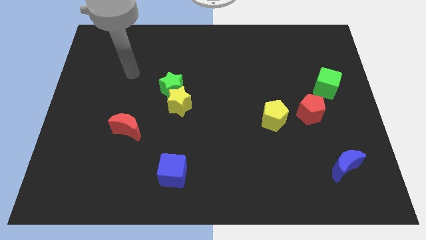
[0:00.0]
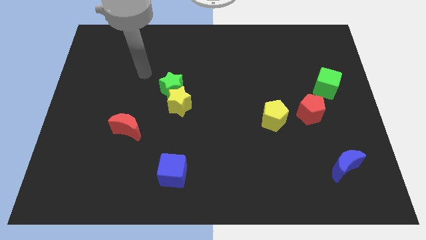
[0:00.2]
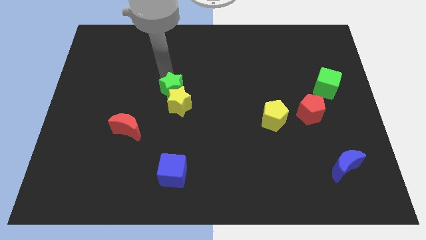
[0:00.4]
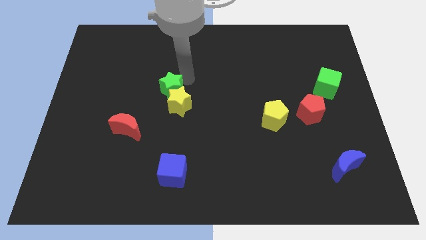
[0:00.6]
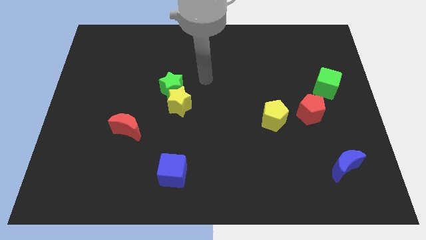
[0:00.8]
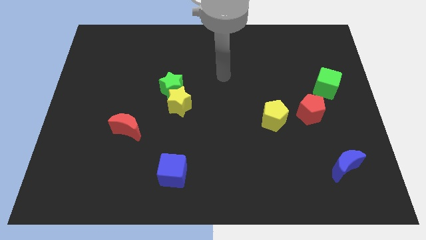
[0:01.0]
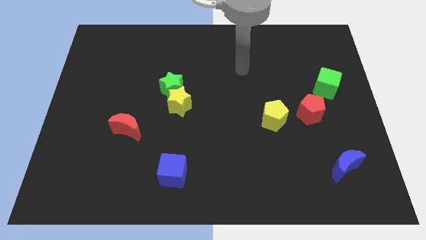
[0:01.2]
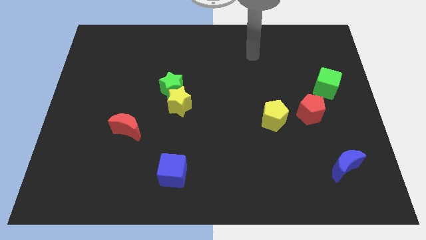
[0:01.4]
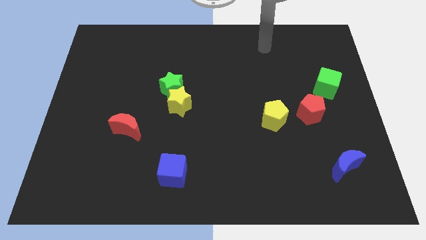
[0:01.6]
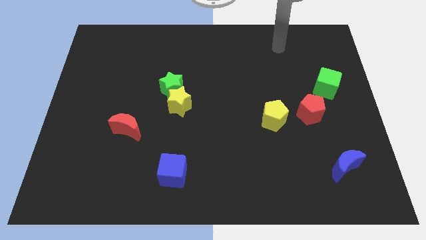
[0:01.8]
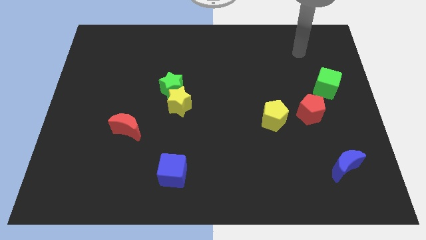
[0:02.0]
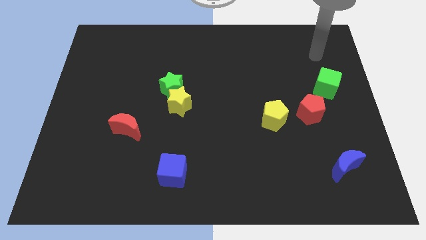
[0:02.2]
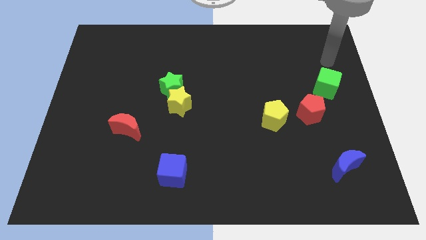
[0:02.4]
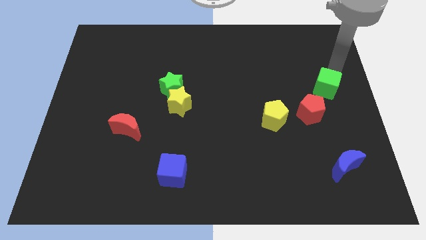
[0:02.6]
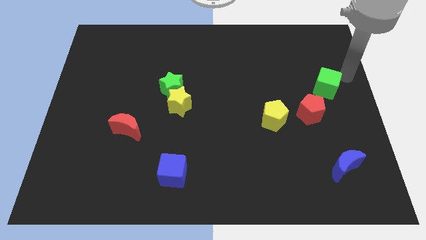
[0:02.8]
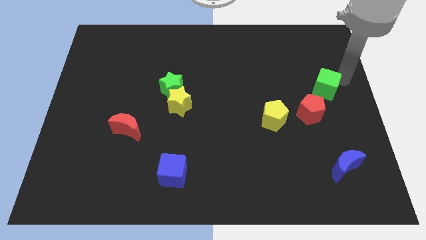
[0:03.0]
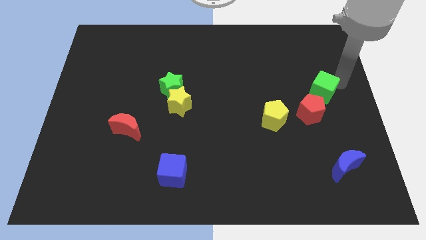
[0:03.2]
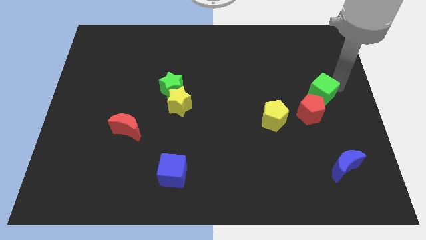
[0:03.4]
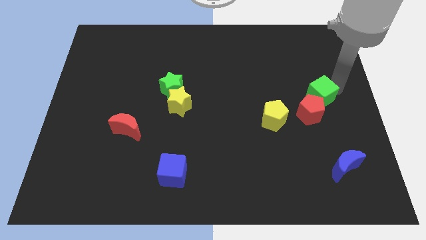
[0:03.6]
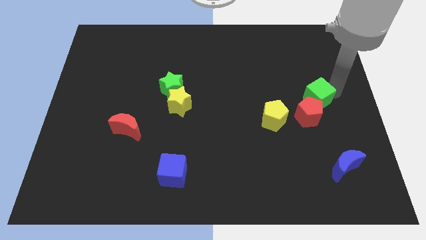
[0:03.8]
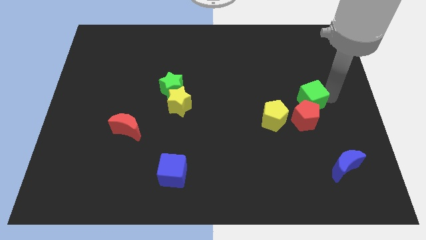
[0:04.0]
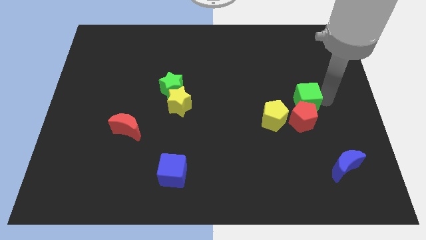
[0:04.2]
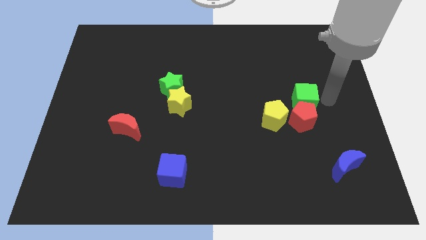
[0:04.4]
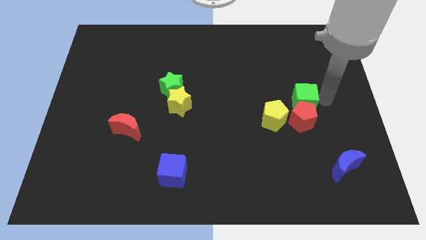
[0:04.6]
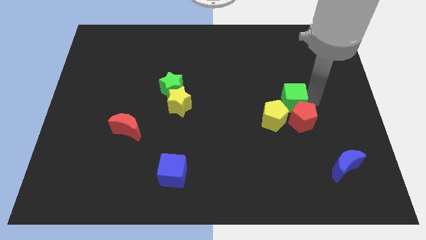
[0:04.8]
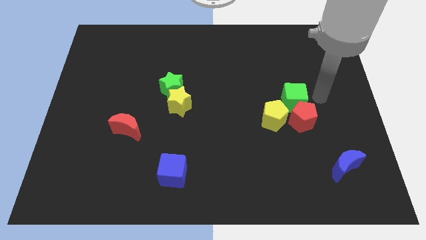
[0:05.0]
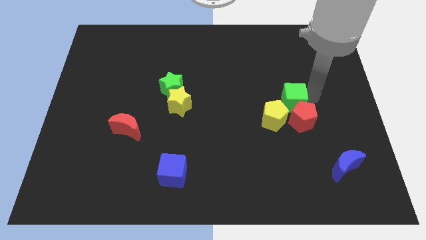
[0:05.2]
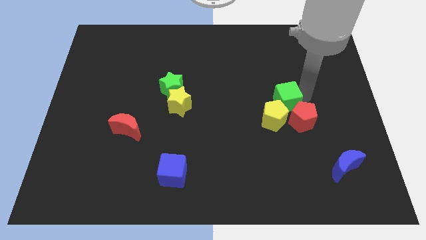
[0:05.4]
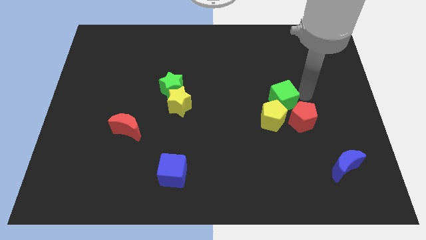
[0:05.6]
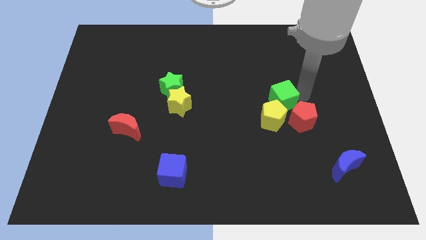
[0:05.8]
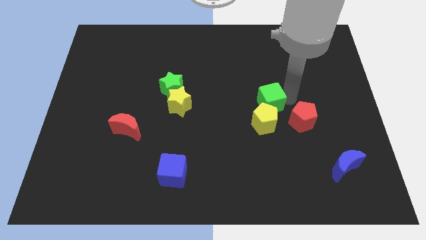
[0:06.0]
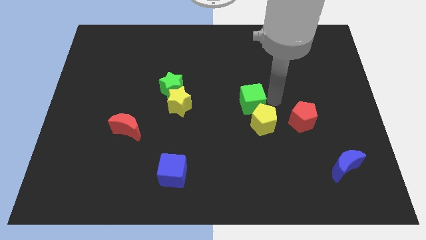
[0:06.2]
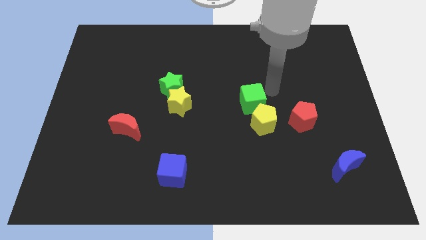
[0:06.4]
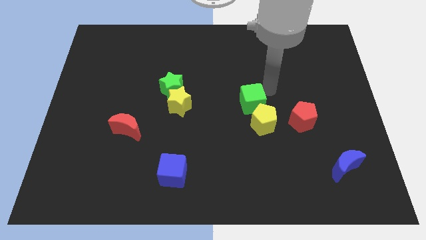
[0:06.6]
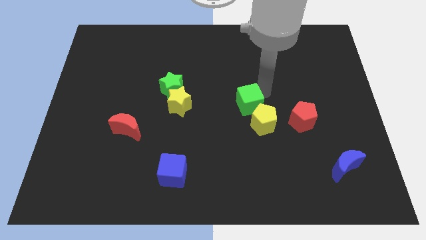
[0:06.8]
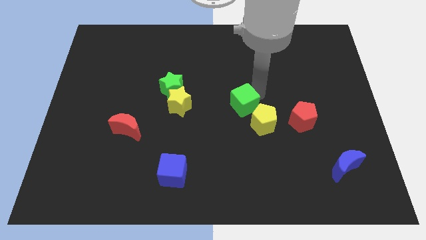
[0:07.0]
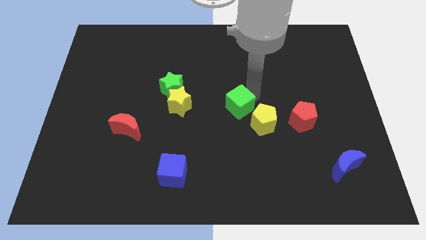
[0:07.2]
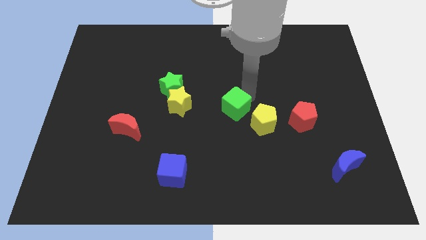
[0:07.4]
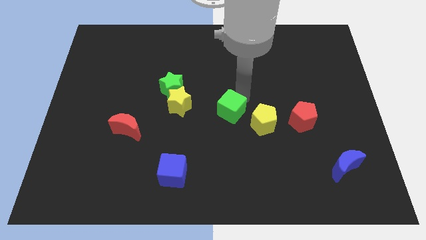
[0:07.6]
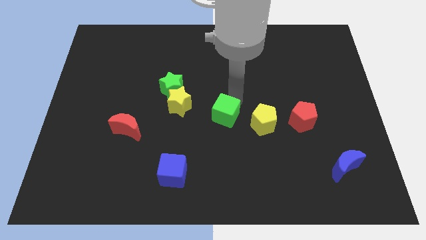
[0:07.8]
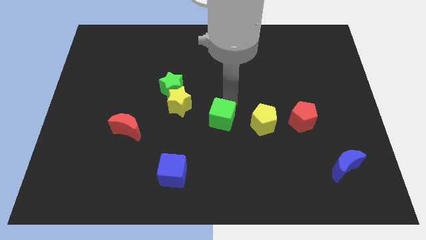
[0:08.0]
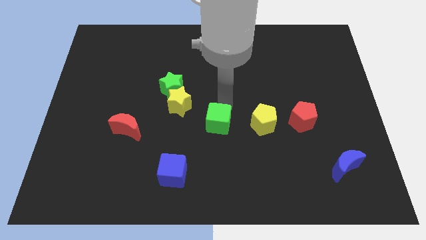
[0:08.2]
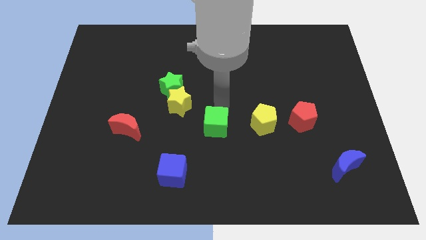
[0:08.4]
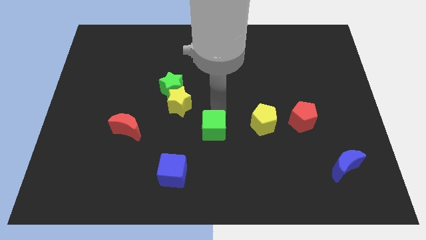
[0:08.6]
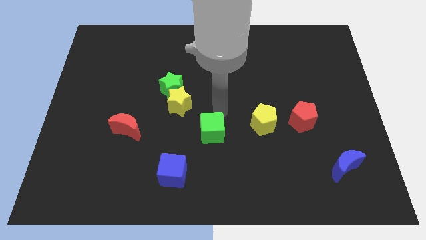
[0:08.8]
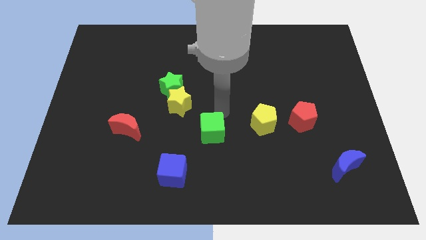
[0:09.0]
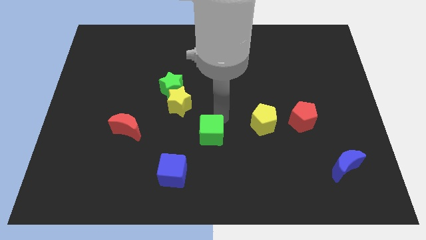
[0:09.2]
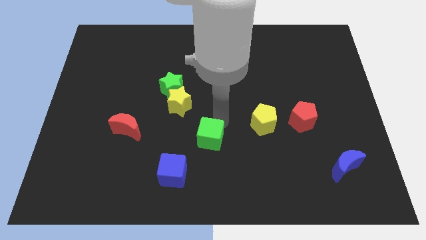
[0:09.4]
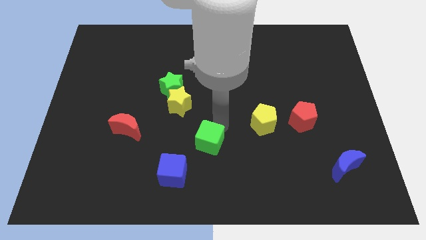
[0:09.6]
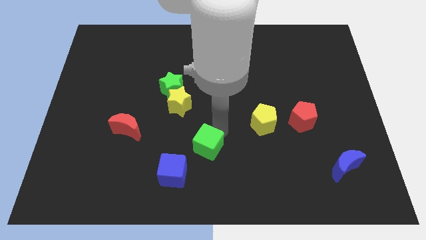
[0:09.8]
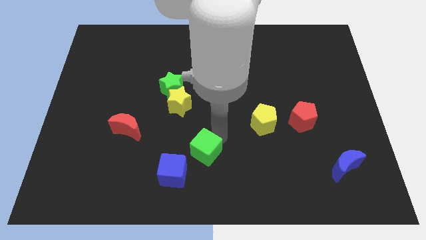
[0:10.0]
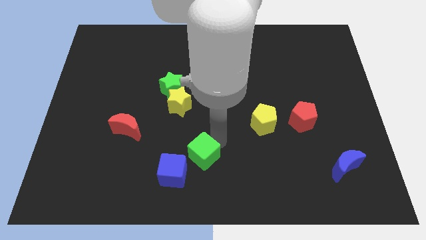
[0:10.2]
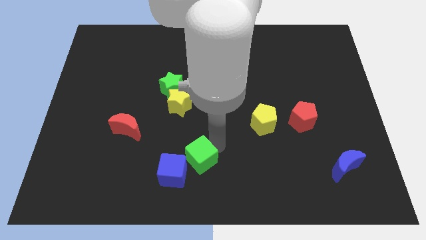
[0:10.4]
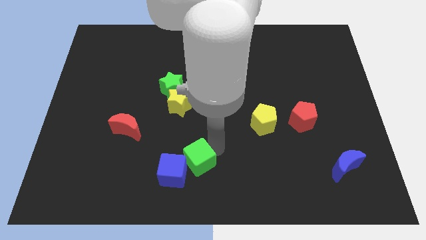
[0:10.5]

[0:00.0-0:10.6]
slide the green cube towards the blue cube

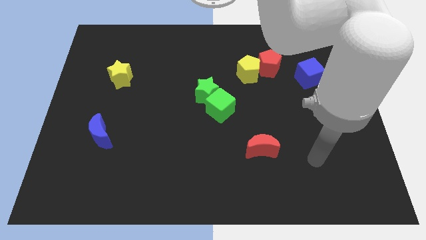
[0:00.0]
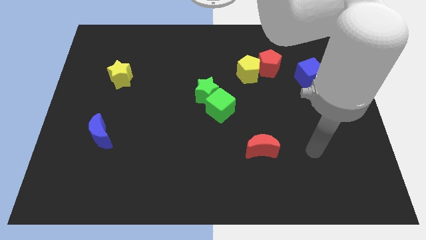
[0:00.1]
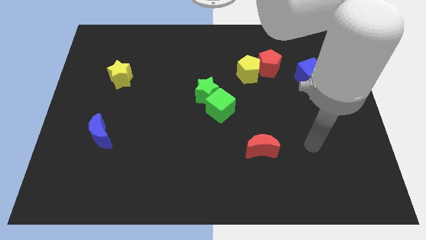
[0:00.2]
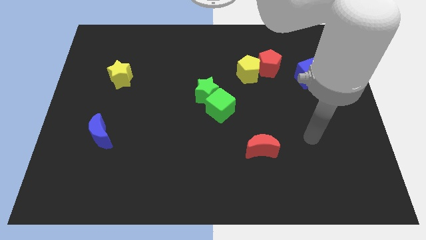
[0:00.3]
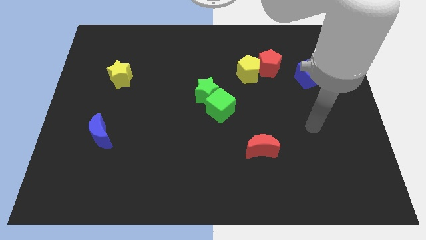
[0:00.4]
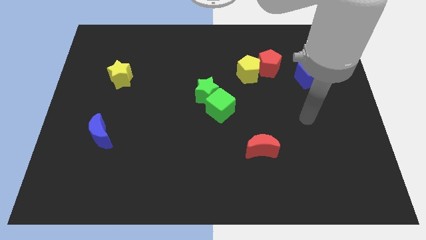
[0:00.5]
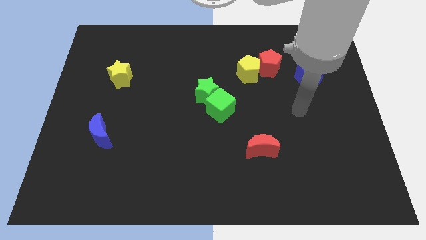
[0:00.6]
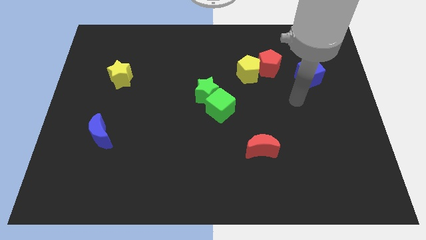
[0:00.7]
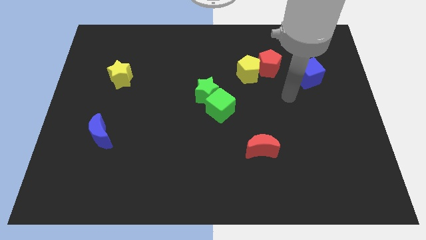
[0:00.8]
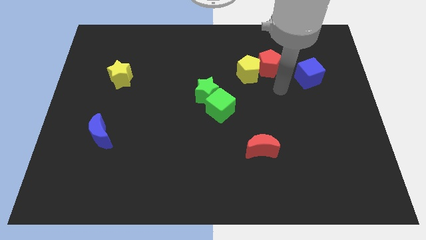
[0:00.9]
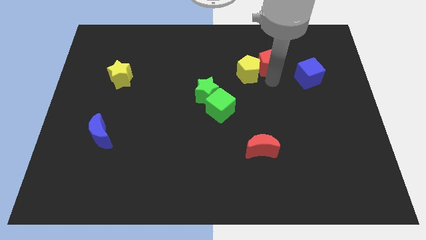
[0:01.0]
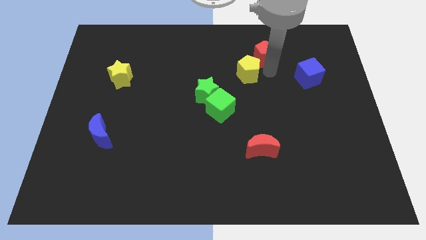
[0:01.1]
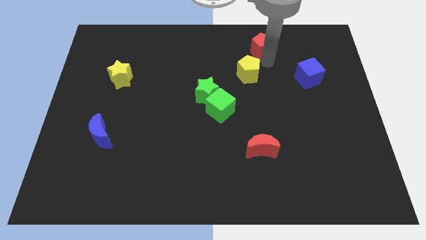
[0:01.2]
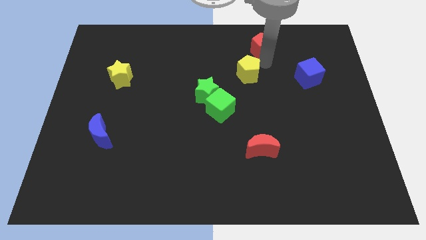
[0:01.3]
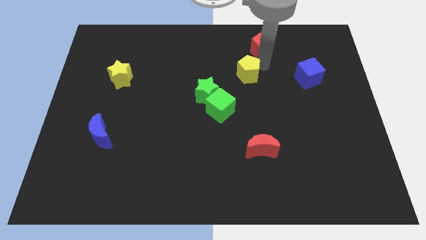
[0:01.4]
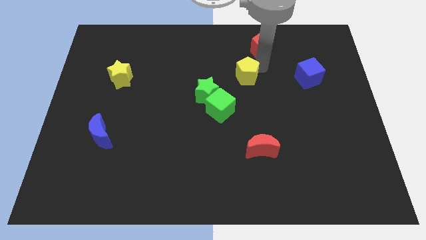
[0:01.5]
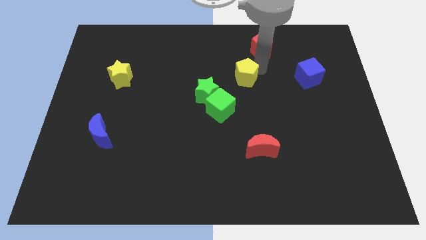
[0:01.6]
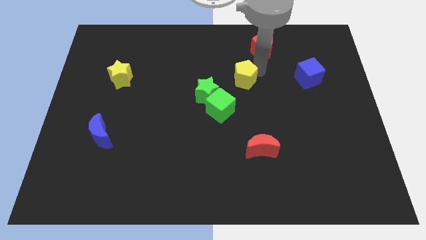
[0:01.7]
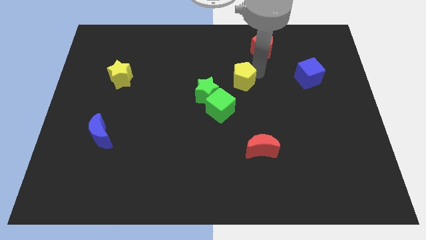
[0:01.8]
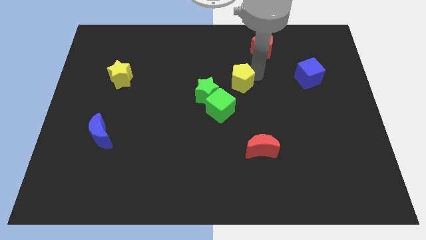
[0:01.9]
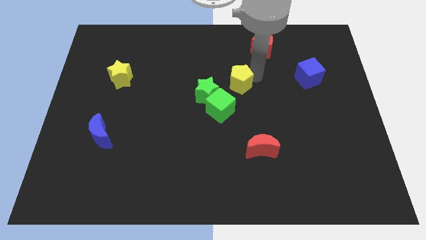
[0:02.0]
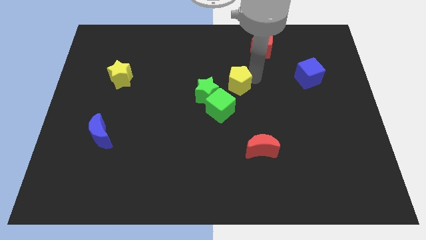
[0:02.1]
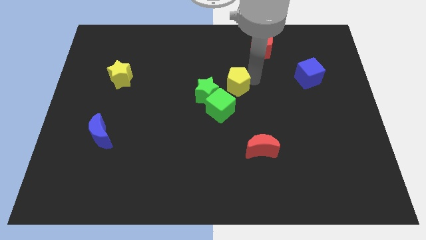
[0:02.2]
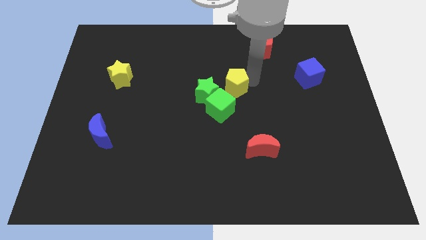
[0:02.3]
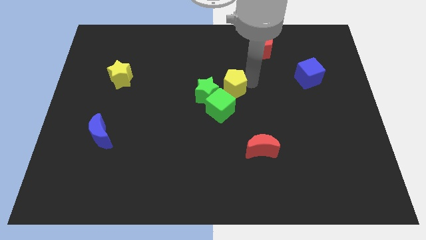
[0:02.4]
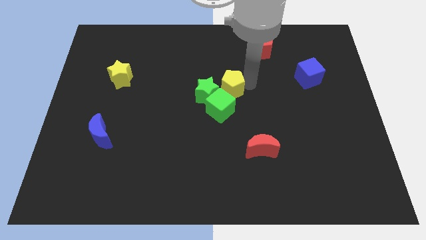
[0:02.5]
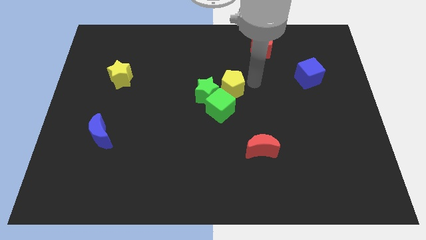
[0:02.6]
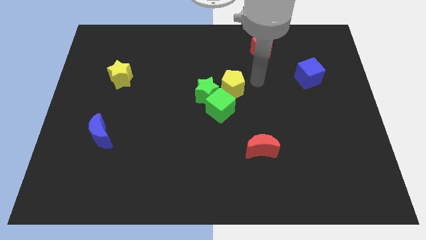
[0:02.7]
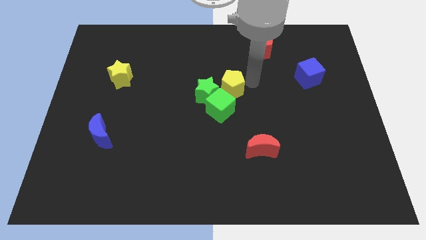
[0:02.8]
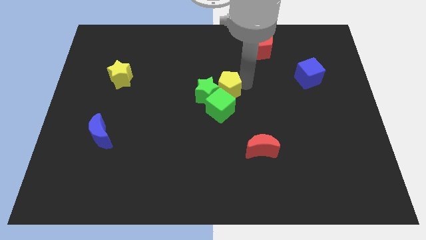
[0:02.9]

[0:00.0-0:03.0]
slide the yellow pentagon to the green star
